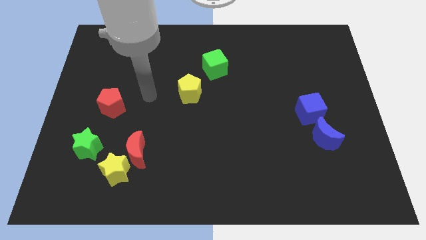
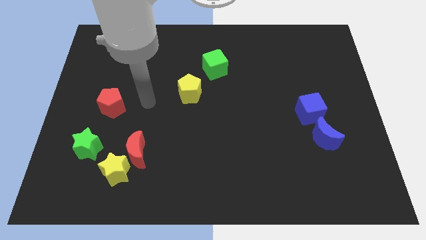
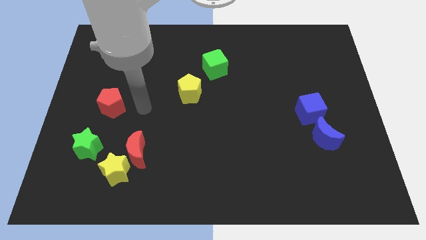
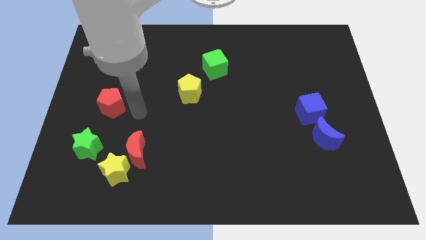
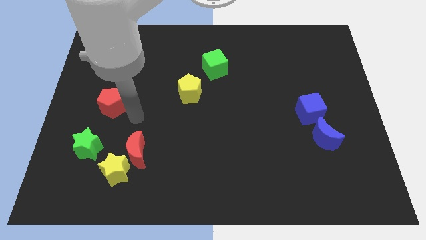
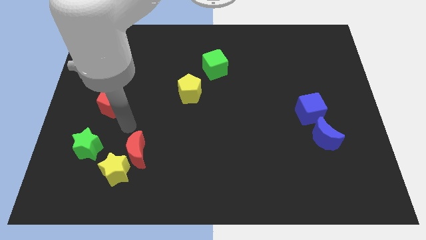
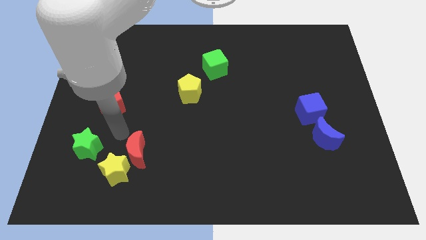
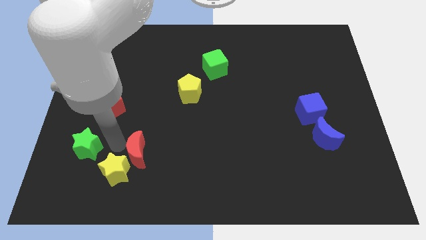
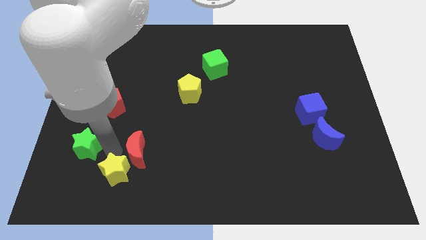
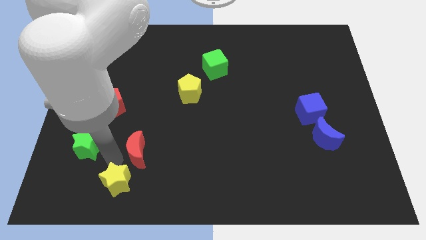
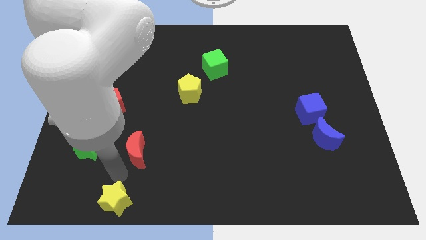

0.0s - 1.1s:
separate the red moon from the yellow star

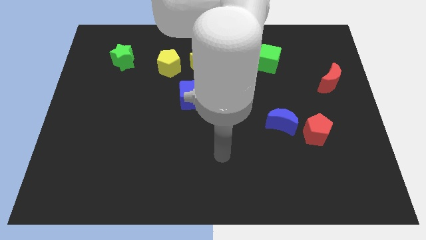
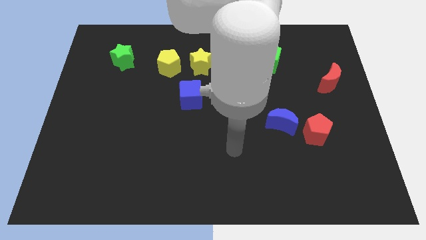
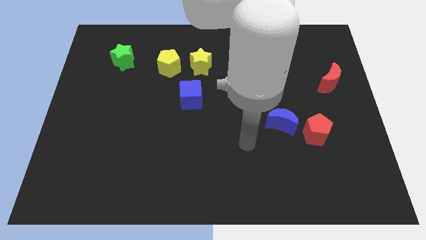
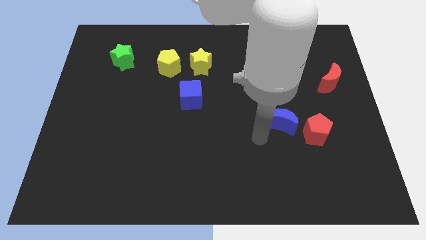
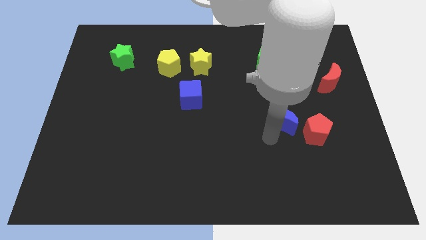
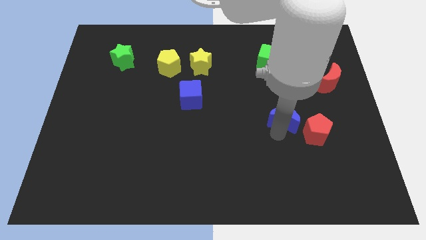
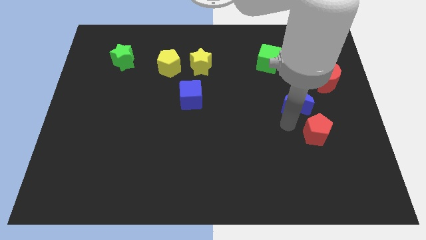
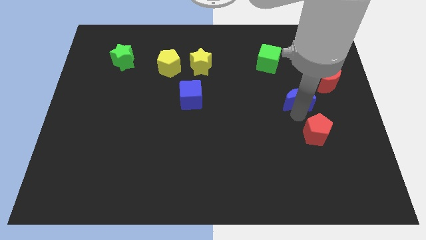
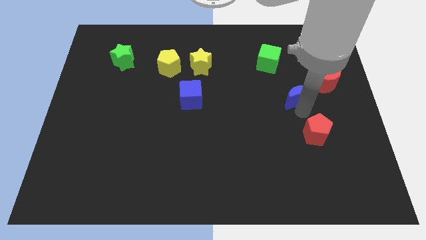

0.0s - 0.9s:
pull the red pentagon apart from the blue moon

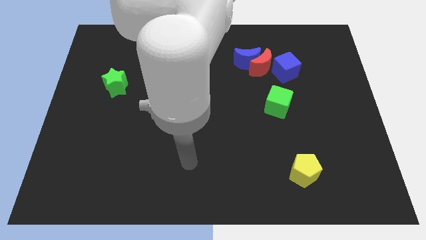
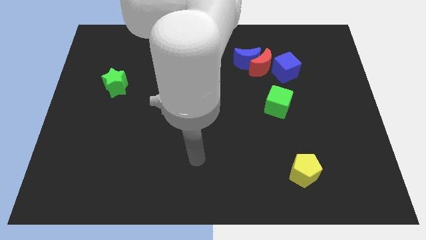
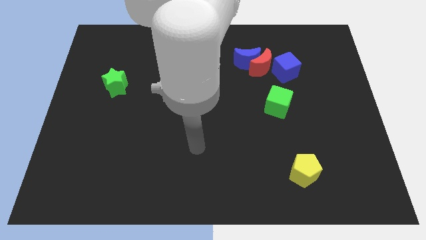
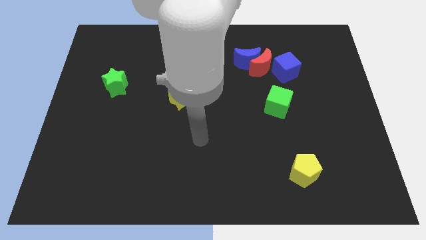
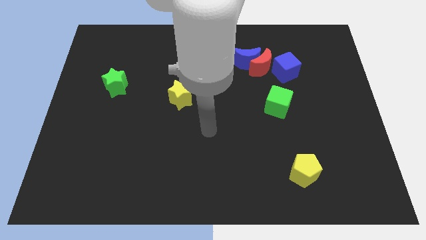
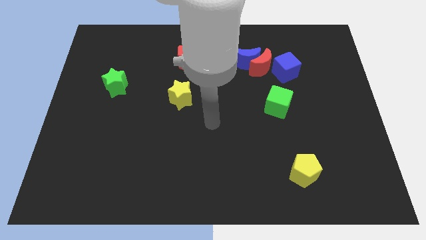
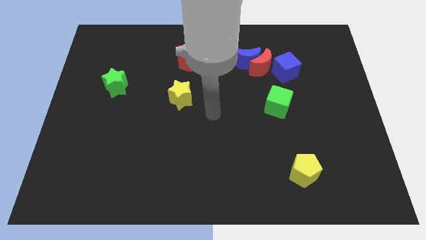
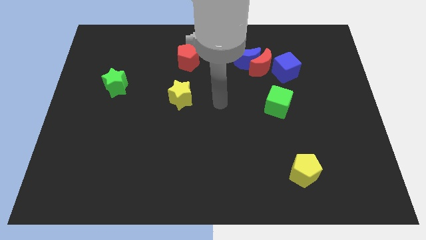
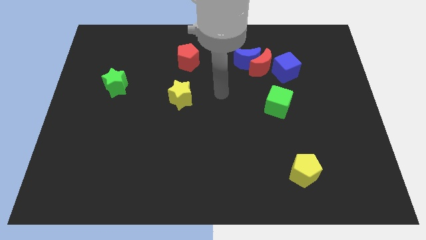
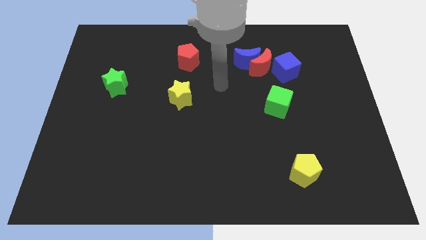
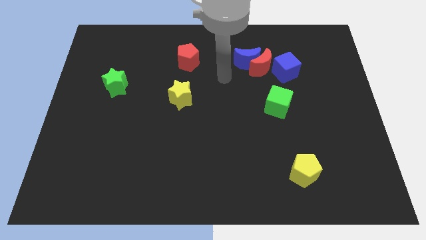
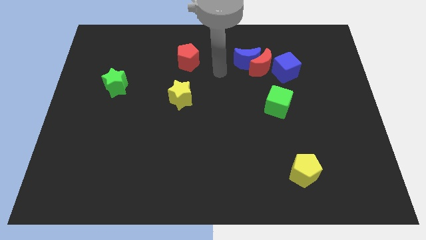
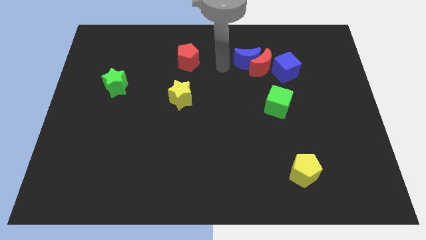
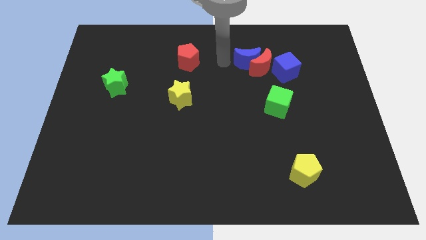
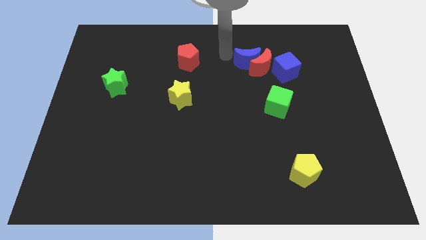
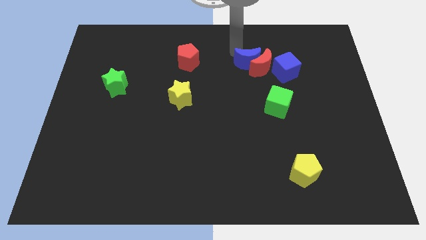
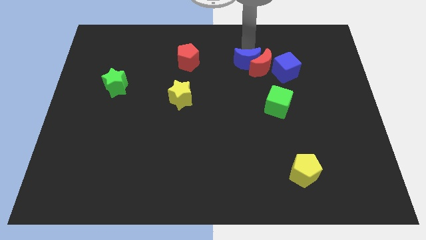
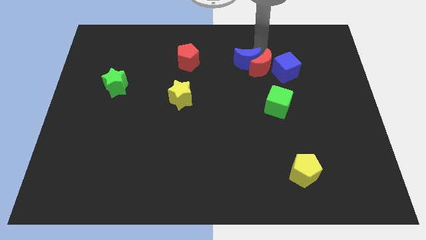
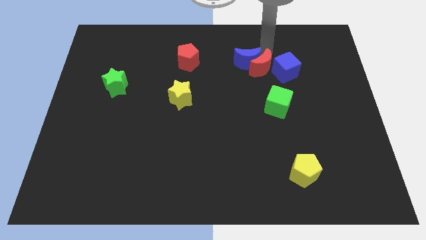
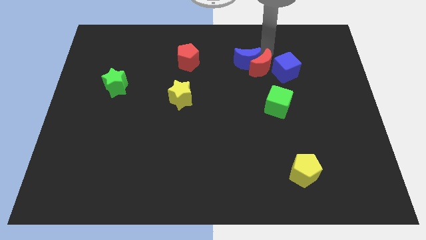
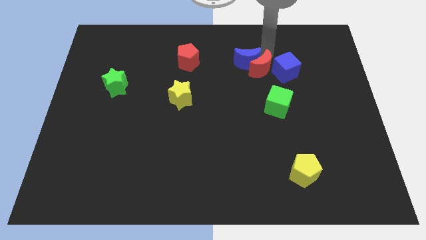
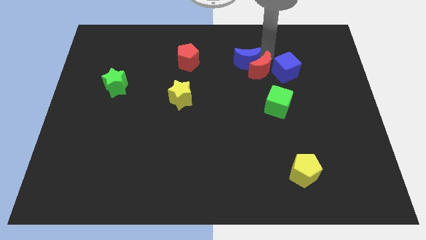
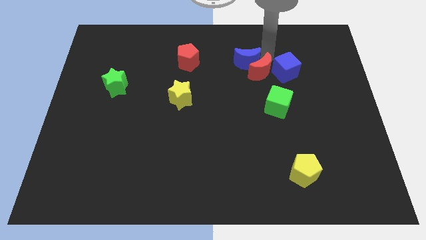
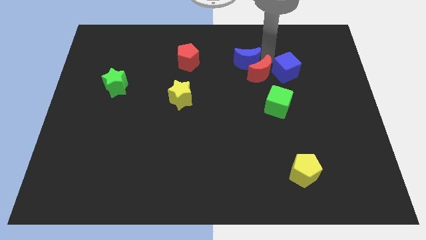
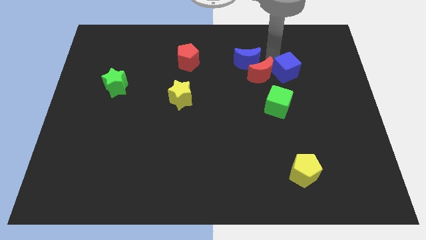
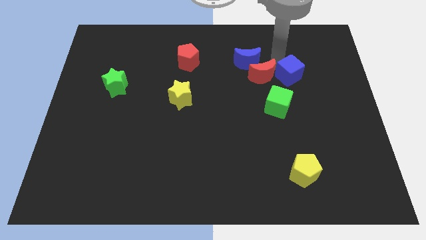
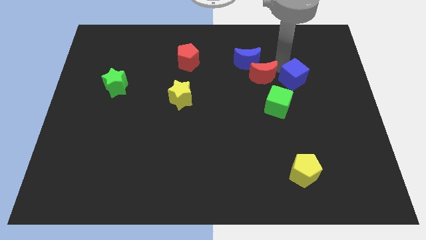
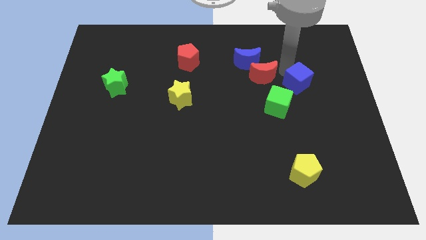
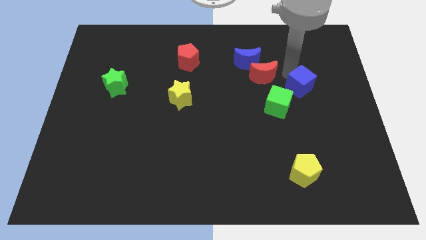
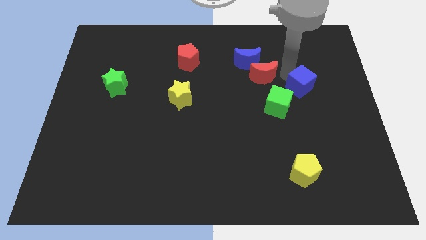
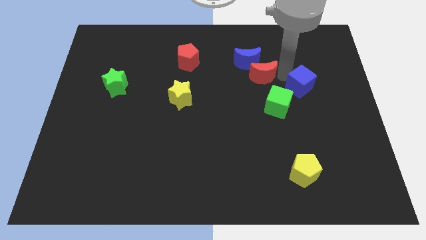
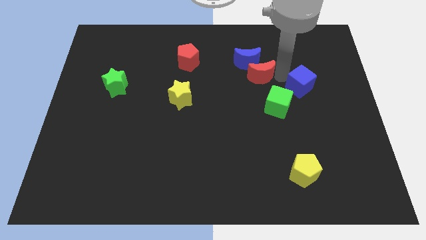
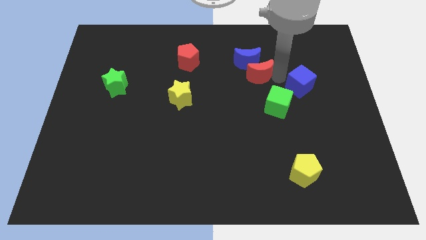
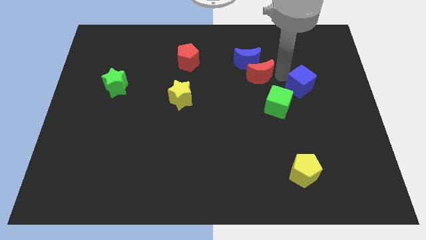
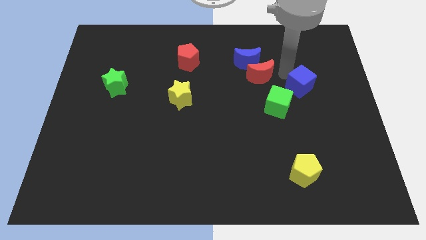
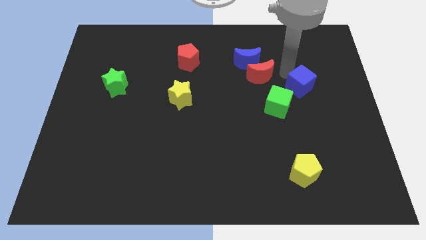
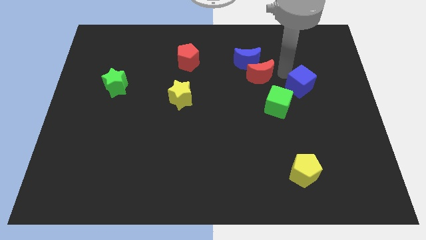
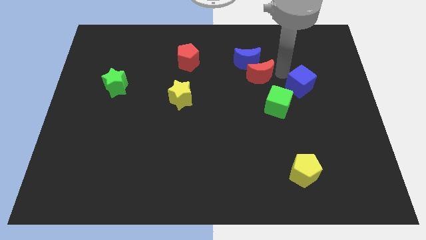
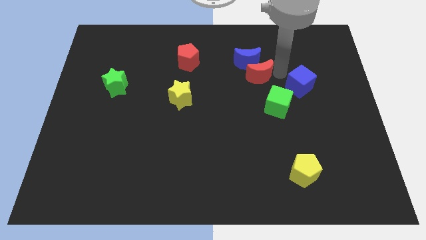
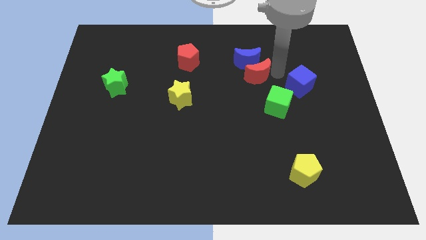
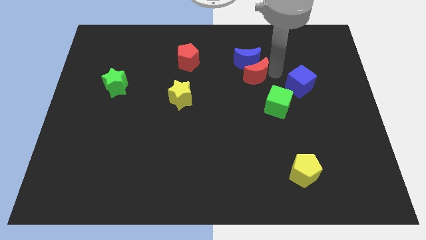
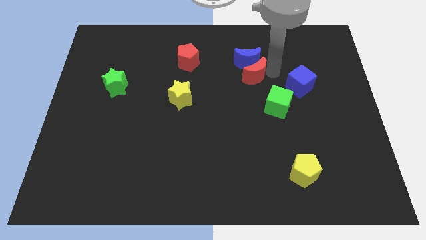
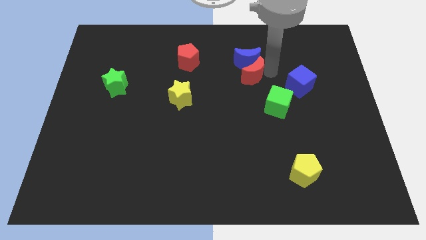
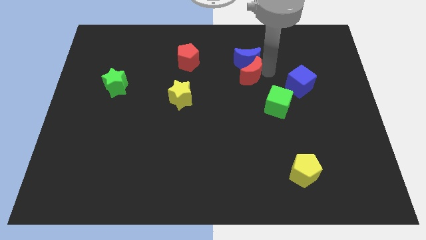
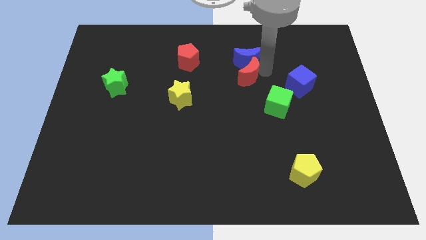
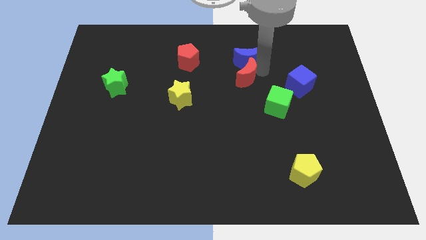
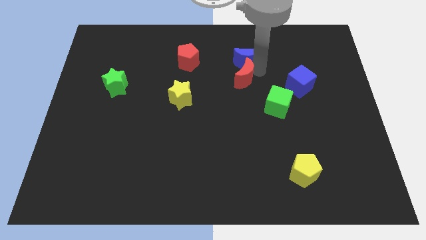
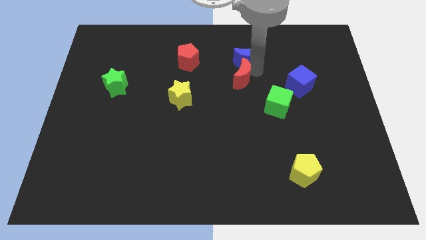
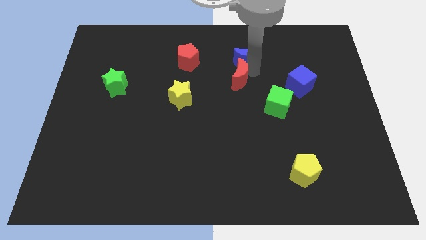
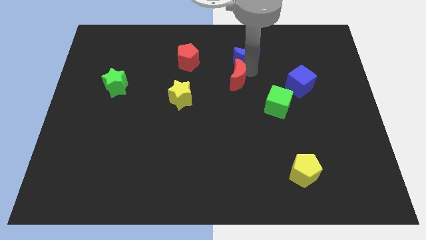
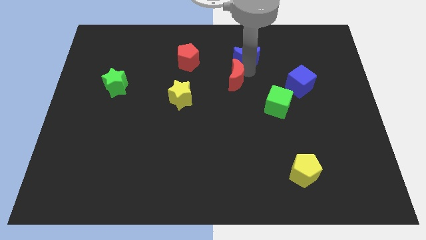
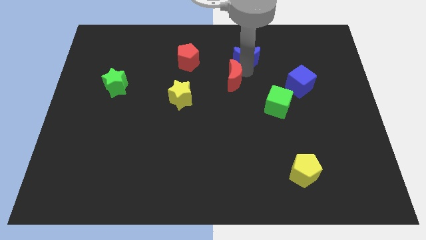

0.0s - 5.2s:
pull the red moon apart from the blue moon and blue cube

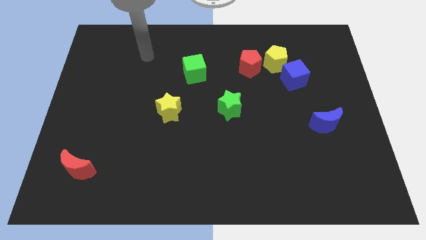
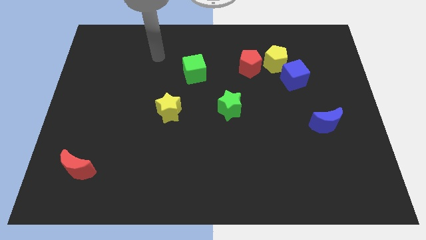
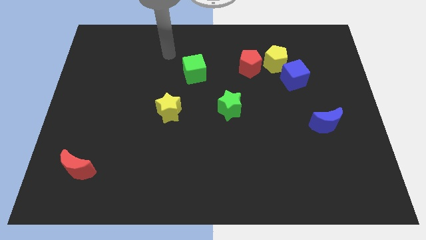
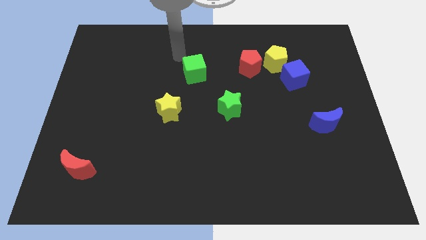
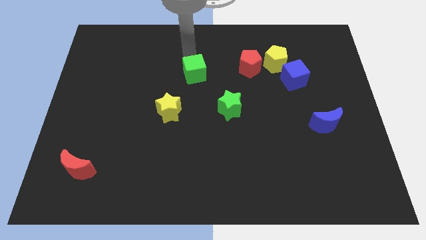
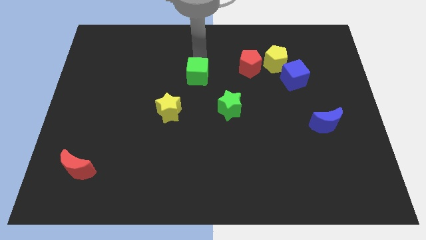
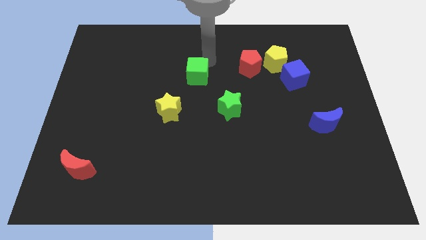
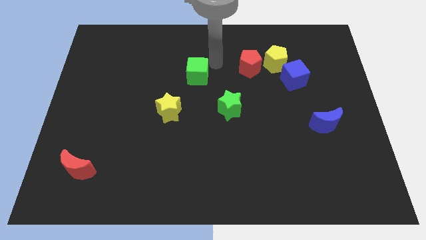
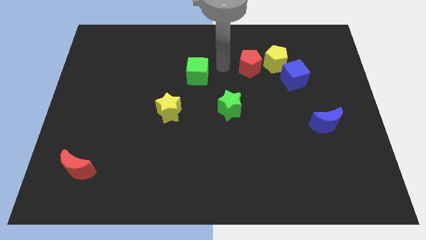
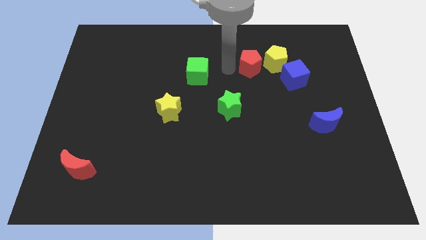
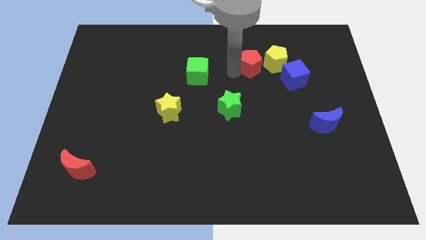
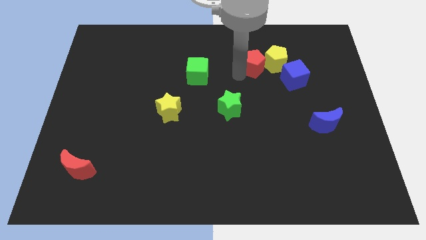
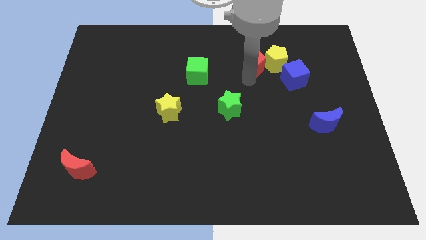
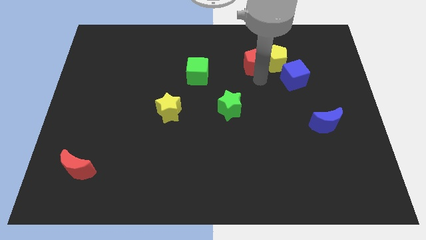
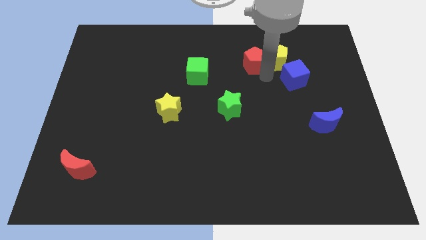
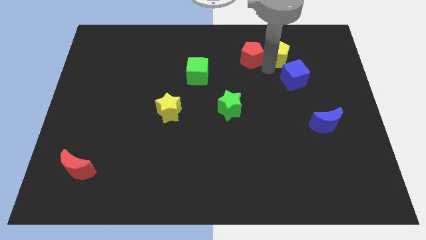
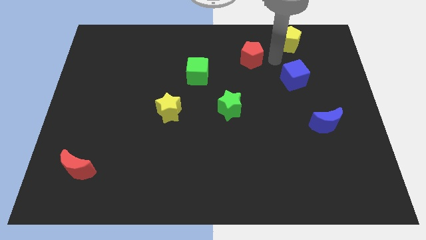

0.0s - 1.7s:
separate the red pentagon from the yellow pentagon

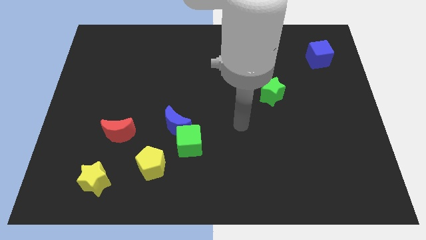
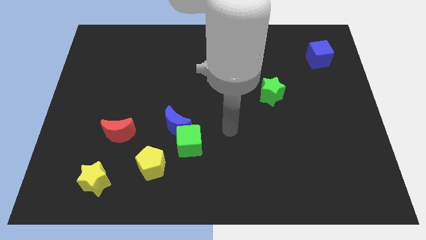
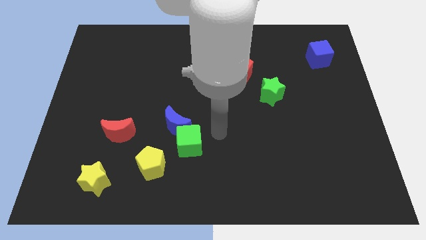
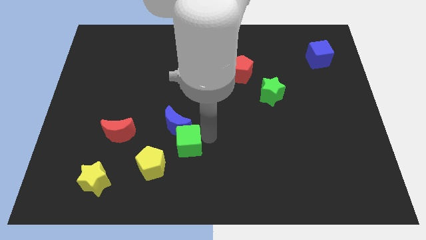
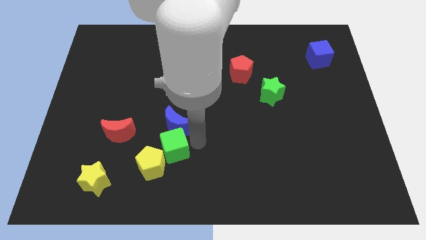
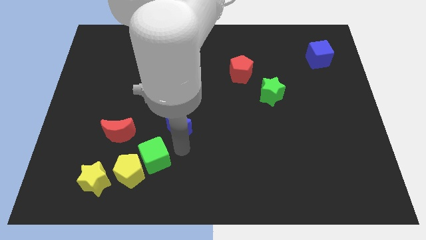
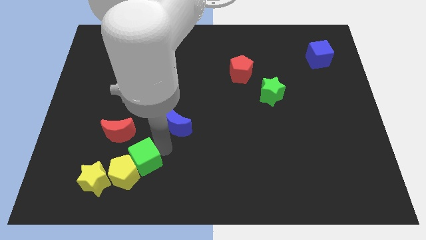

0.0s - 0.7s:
pull the blue moon apart from the green cube
